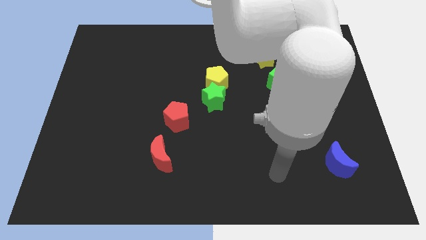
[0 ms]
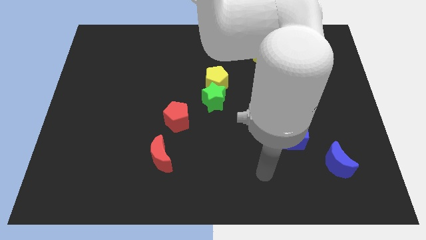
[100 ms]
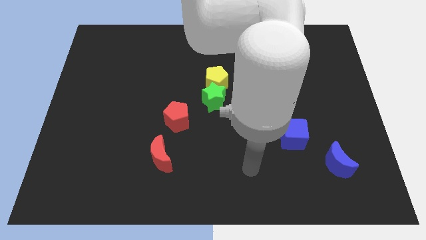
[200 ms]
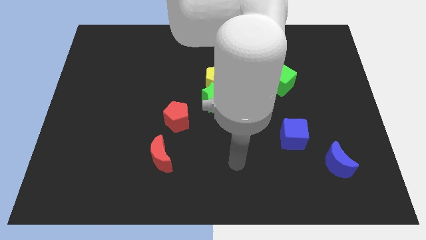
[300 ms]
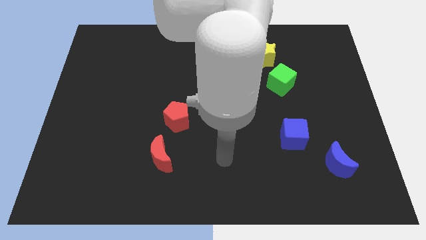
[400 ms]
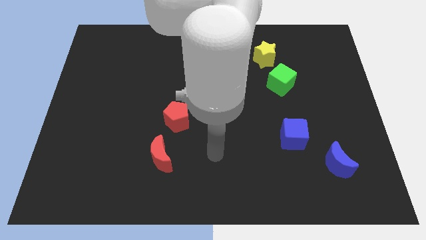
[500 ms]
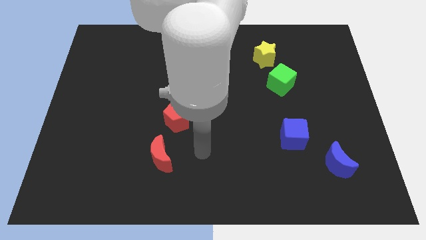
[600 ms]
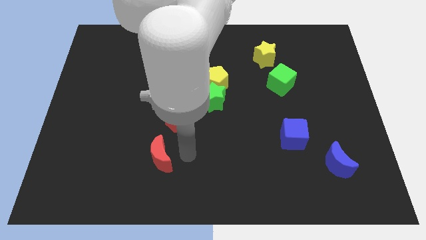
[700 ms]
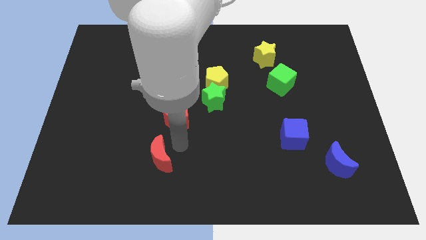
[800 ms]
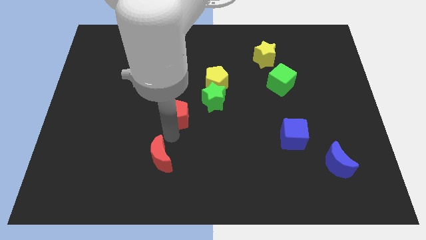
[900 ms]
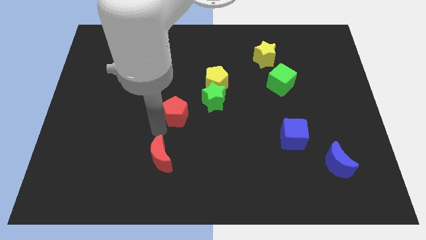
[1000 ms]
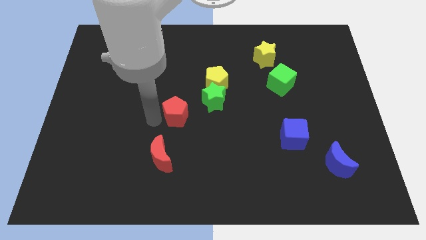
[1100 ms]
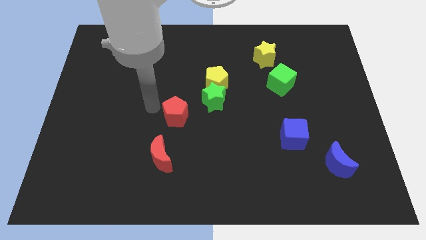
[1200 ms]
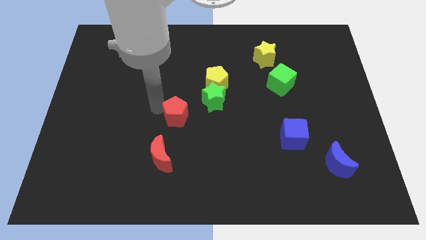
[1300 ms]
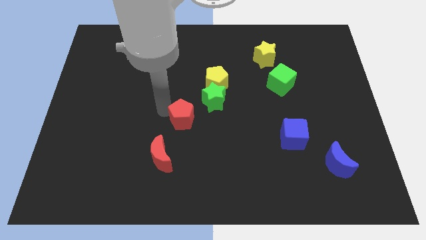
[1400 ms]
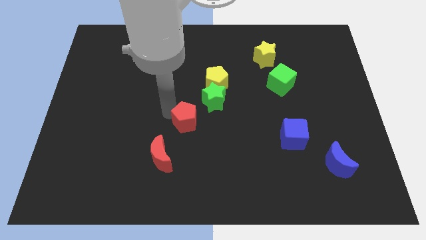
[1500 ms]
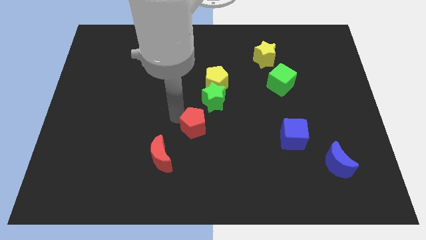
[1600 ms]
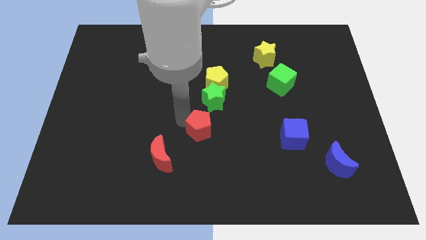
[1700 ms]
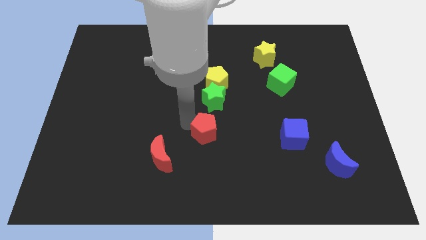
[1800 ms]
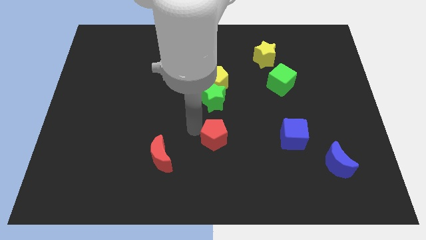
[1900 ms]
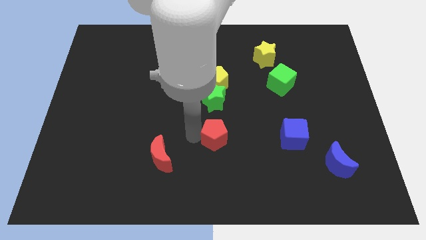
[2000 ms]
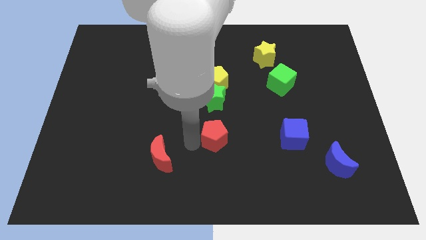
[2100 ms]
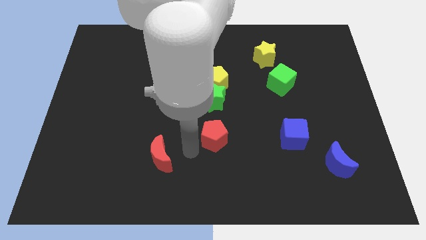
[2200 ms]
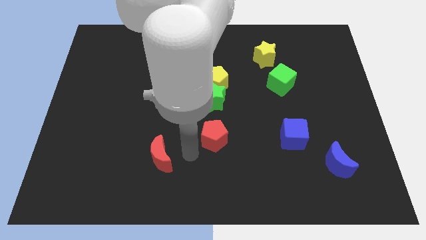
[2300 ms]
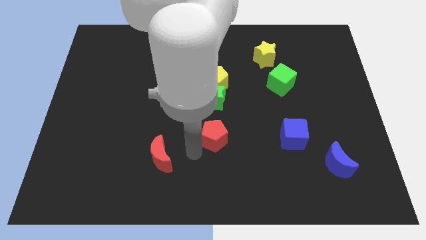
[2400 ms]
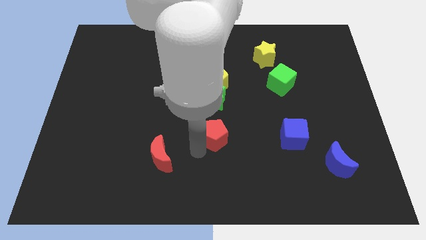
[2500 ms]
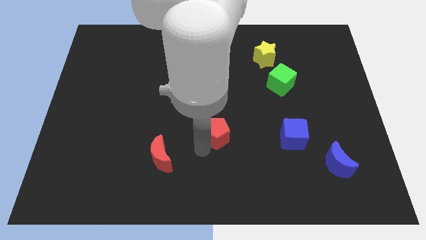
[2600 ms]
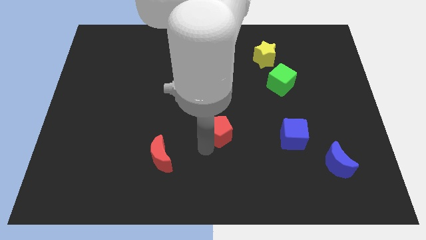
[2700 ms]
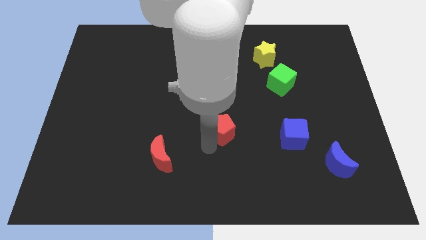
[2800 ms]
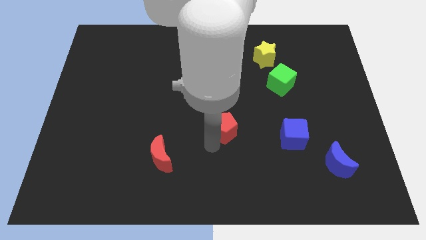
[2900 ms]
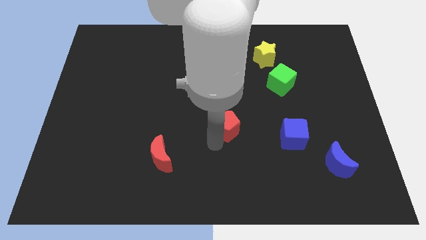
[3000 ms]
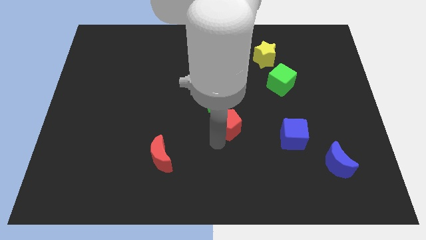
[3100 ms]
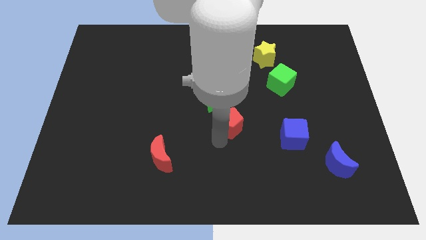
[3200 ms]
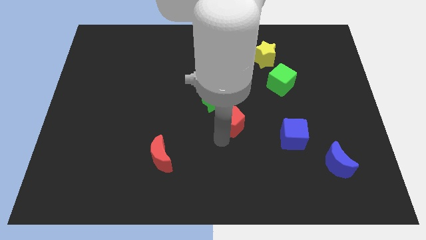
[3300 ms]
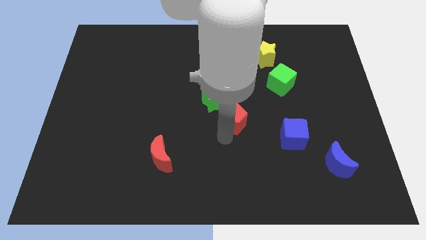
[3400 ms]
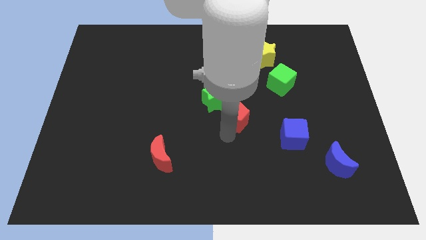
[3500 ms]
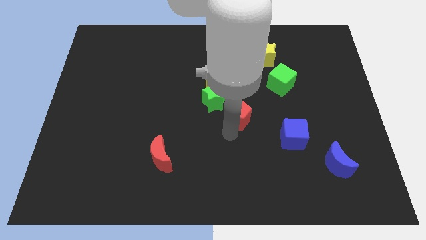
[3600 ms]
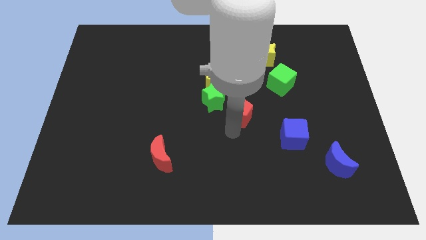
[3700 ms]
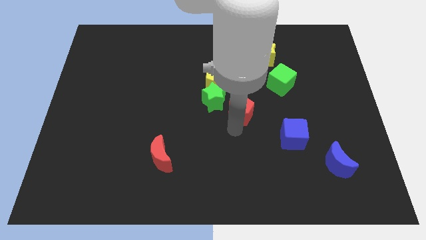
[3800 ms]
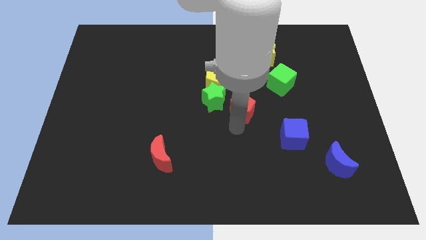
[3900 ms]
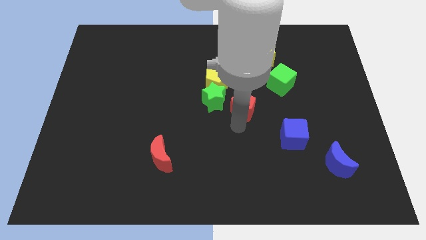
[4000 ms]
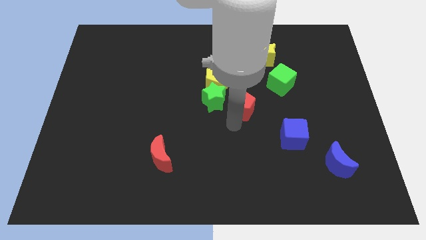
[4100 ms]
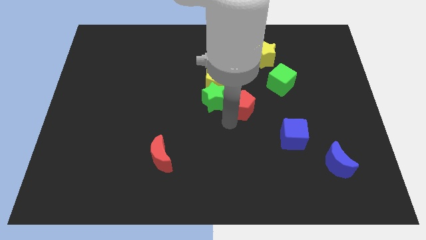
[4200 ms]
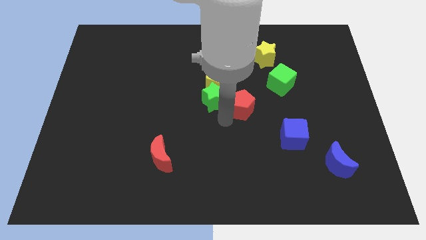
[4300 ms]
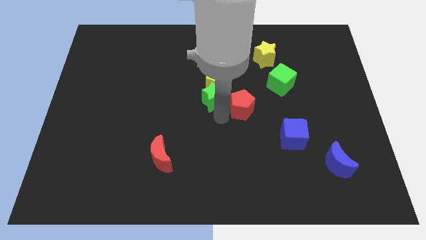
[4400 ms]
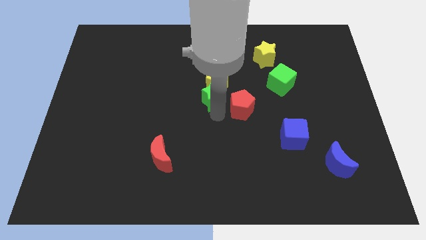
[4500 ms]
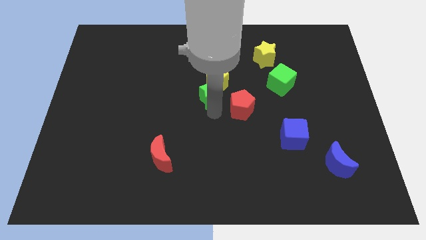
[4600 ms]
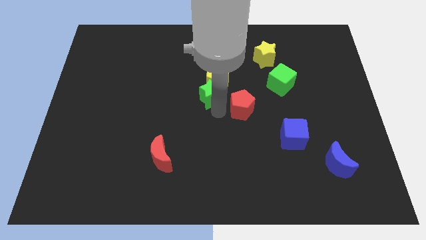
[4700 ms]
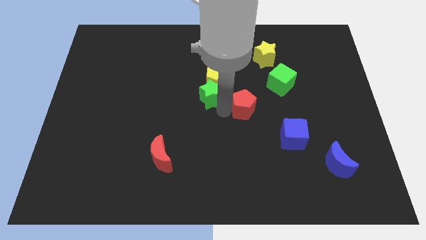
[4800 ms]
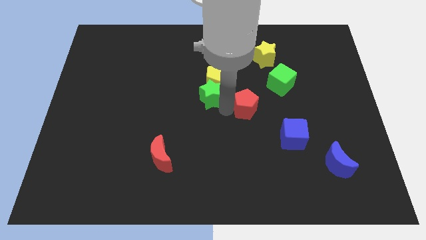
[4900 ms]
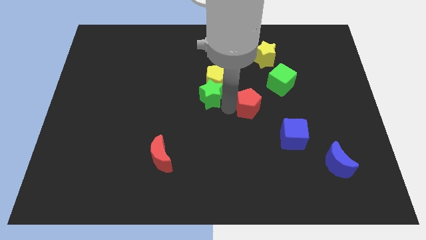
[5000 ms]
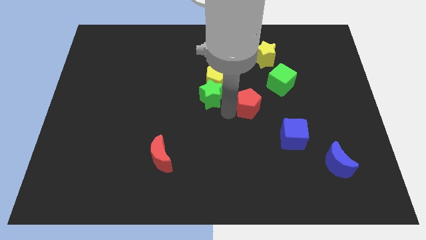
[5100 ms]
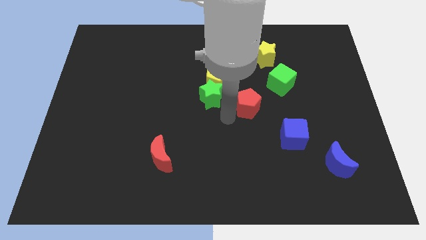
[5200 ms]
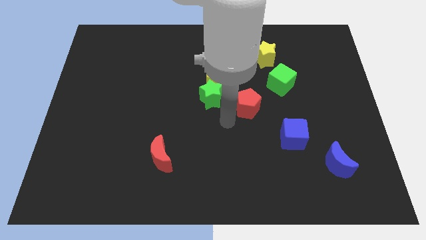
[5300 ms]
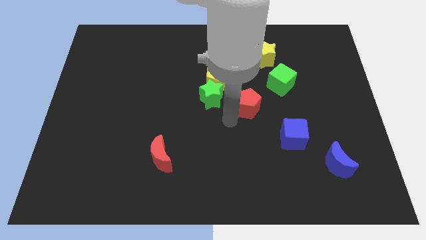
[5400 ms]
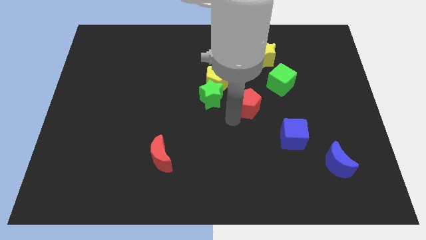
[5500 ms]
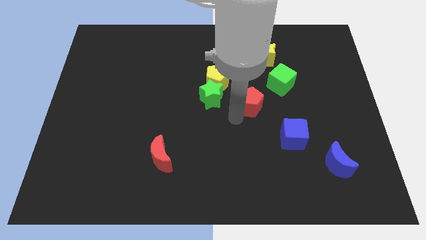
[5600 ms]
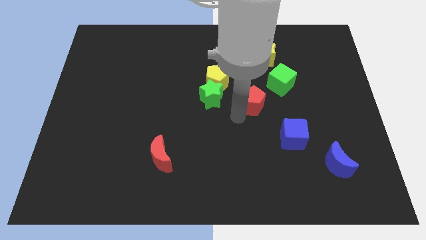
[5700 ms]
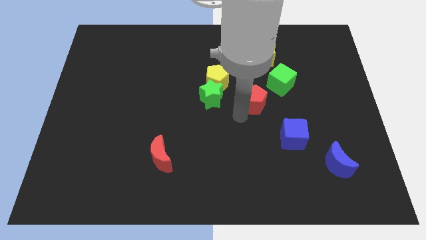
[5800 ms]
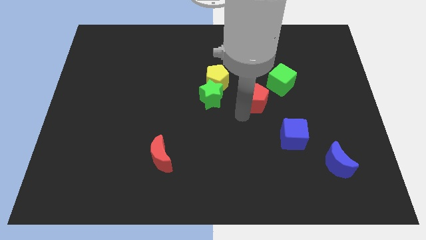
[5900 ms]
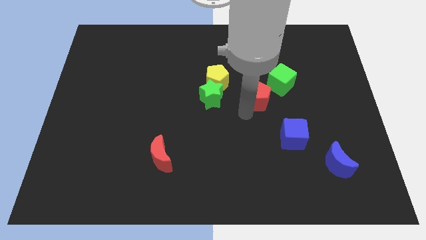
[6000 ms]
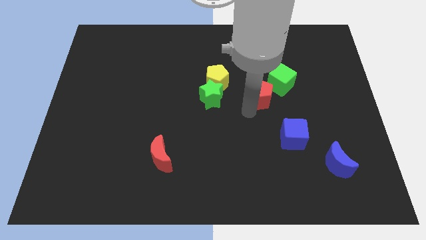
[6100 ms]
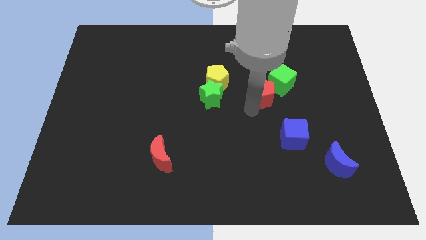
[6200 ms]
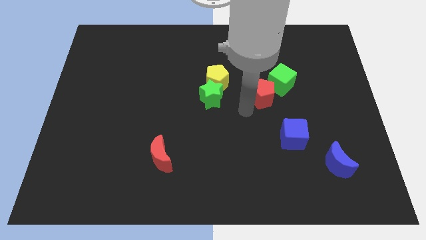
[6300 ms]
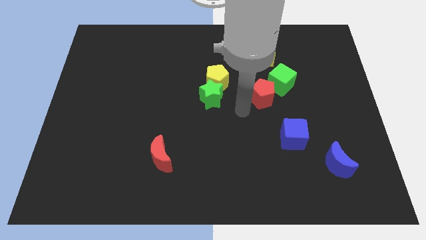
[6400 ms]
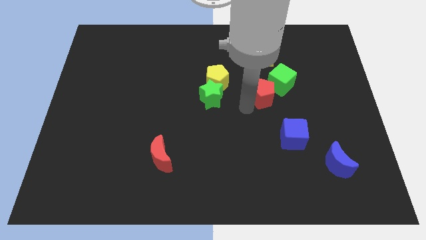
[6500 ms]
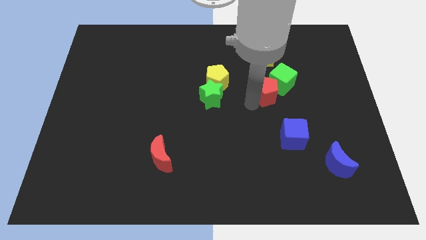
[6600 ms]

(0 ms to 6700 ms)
move the red pentagon to the green cube

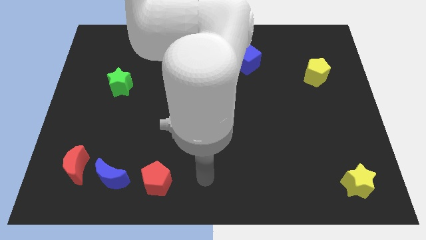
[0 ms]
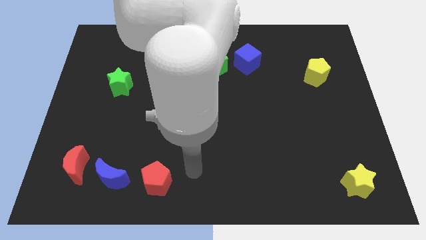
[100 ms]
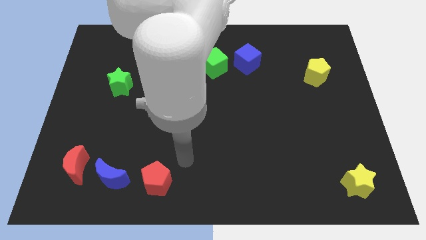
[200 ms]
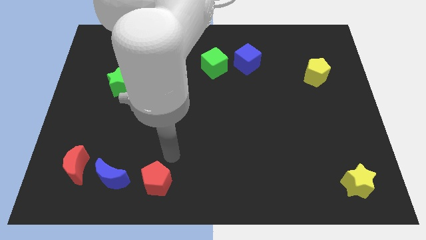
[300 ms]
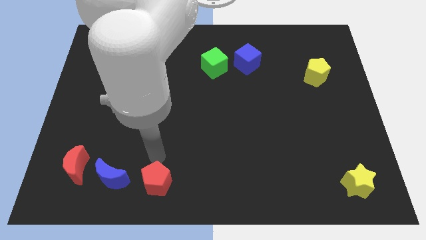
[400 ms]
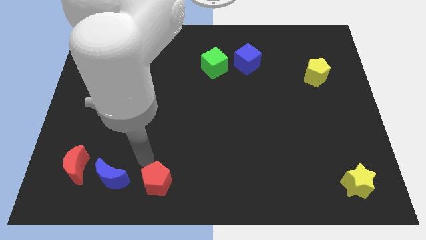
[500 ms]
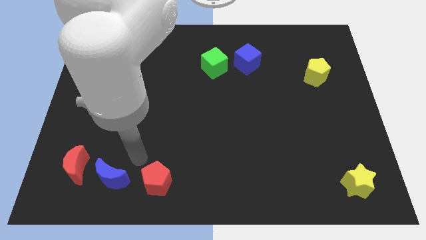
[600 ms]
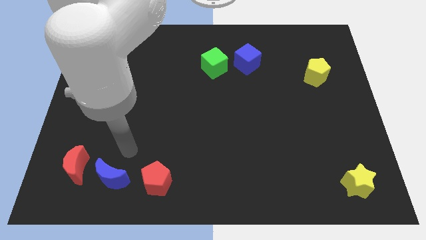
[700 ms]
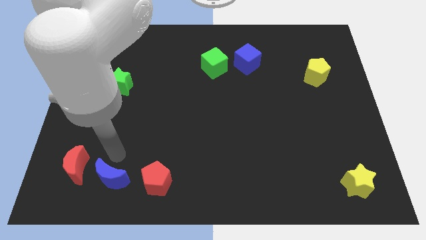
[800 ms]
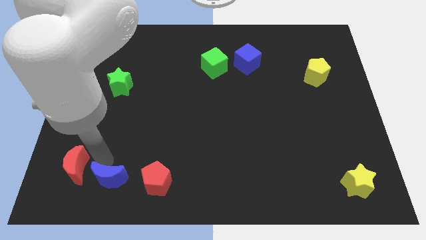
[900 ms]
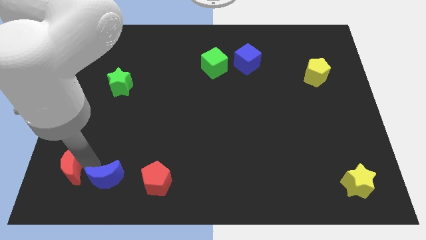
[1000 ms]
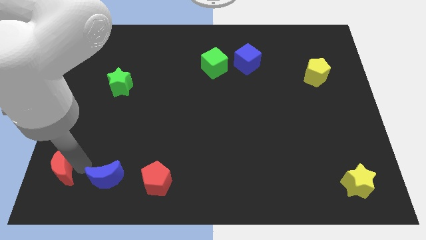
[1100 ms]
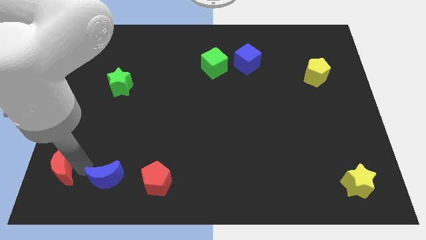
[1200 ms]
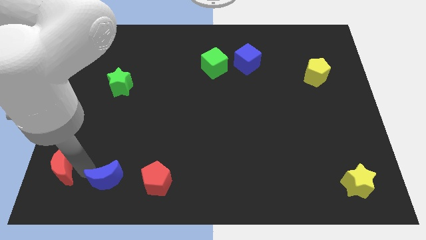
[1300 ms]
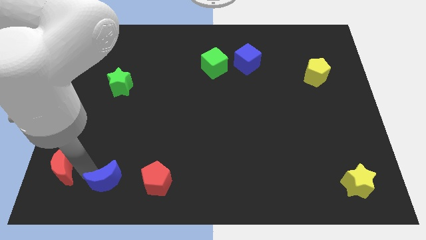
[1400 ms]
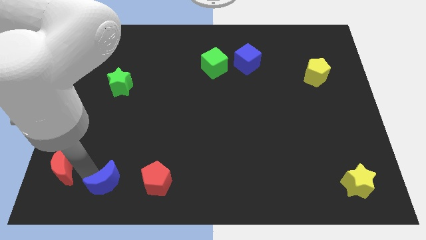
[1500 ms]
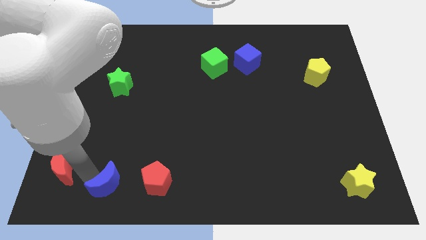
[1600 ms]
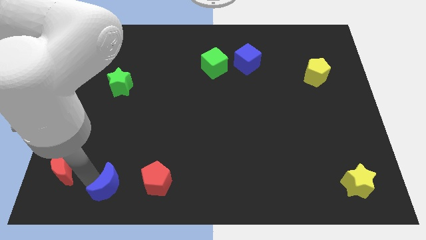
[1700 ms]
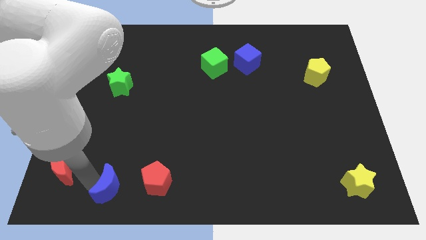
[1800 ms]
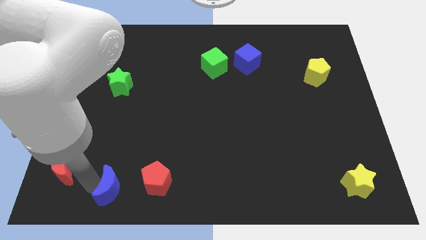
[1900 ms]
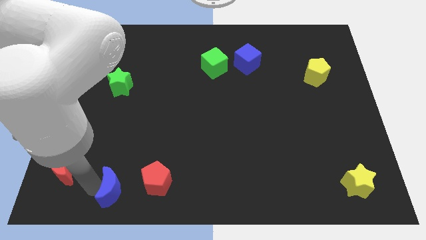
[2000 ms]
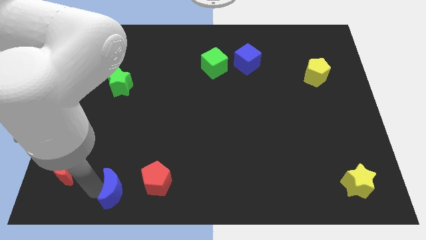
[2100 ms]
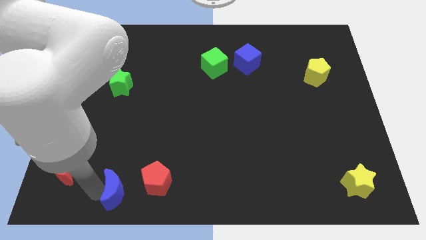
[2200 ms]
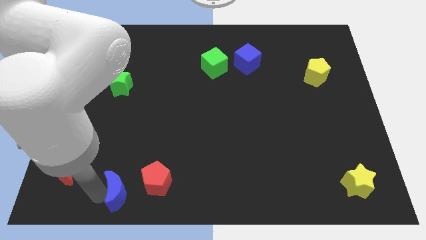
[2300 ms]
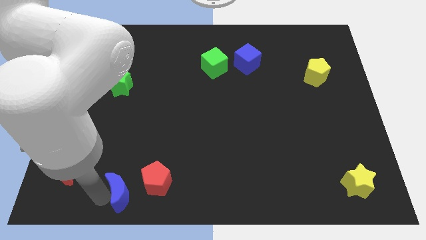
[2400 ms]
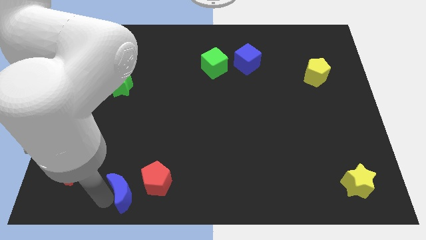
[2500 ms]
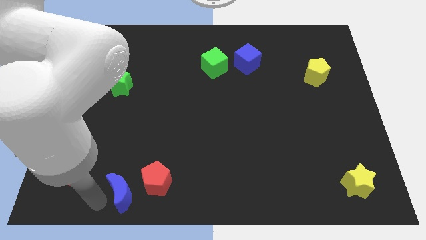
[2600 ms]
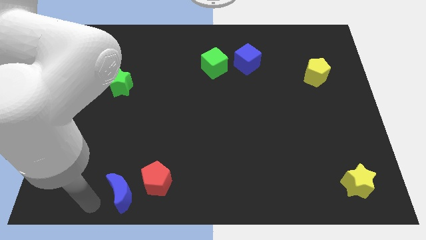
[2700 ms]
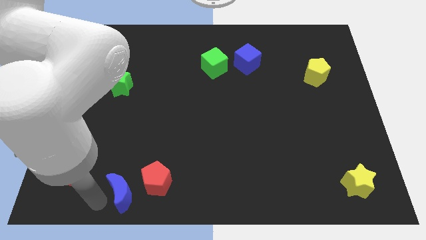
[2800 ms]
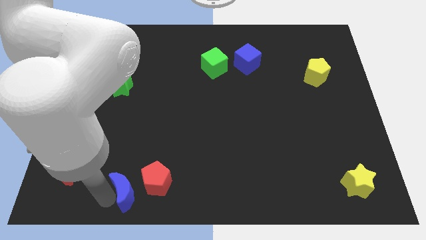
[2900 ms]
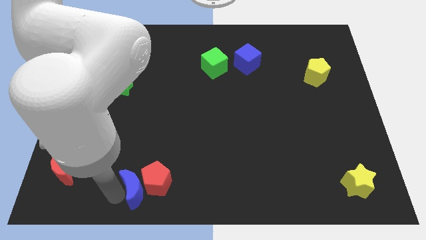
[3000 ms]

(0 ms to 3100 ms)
move the blue moon to the red pentagon
